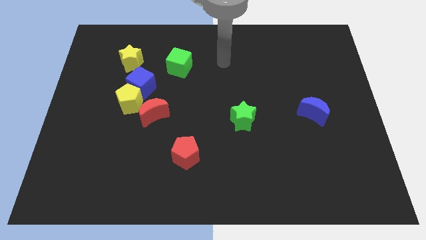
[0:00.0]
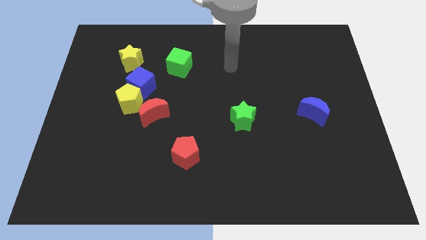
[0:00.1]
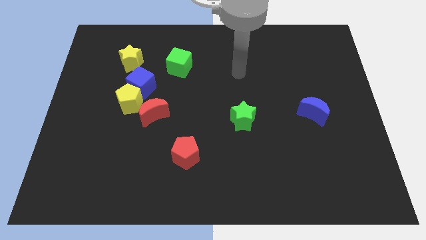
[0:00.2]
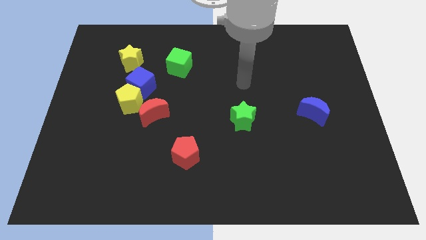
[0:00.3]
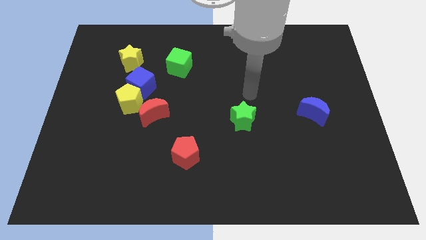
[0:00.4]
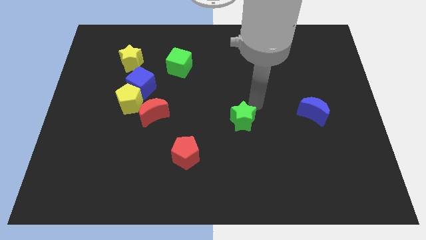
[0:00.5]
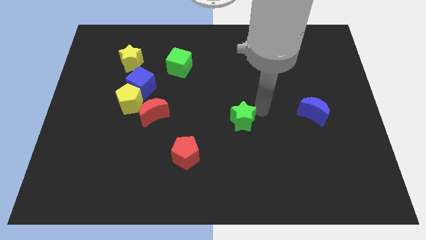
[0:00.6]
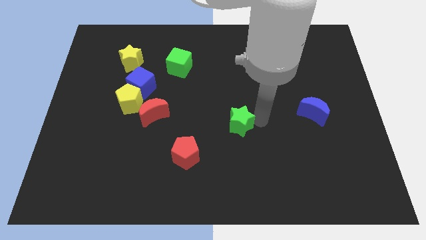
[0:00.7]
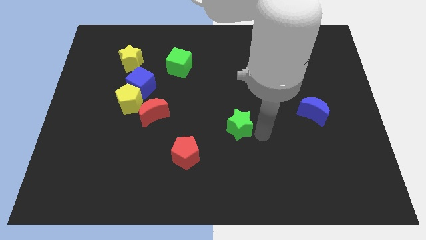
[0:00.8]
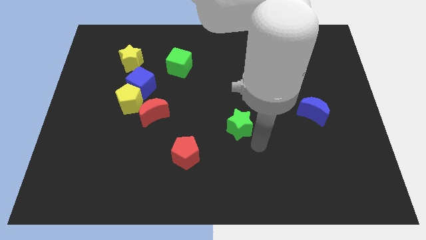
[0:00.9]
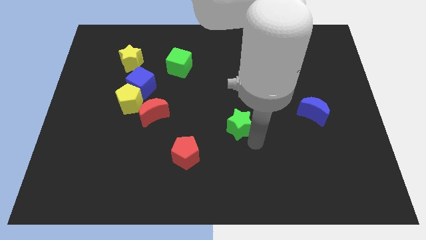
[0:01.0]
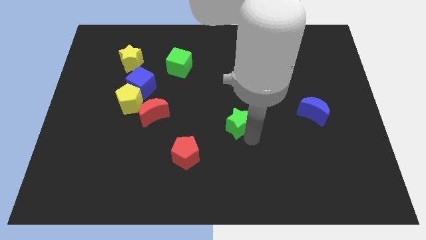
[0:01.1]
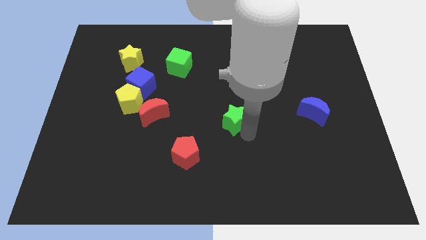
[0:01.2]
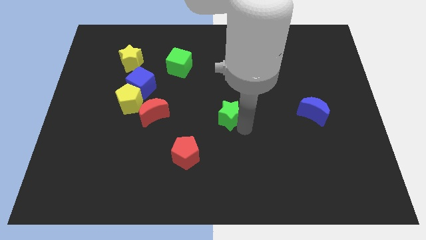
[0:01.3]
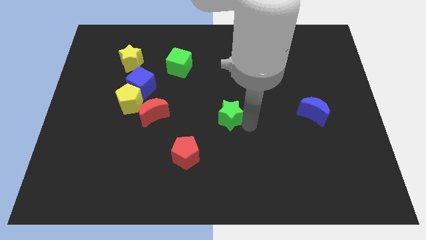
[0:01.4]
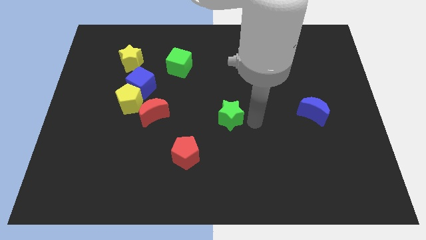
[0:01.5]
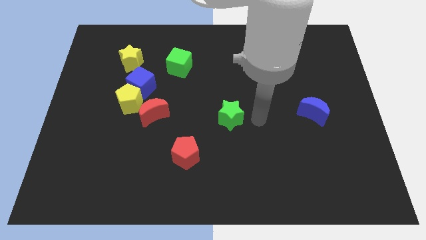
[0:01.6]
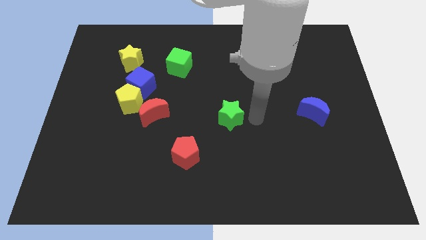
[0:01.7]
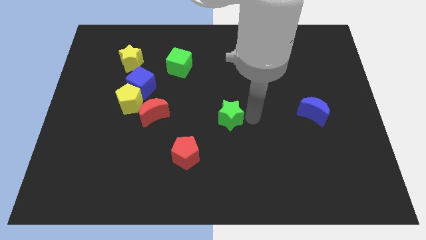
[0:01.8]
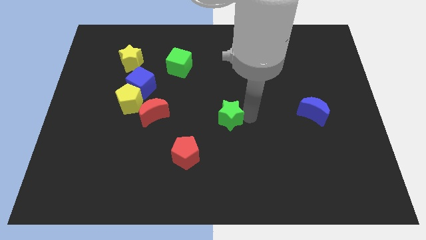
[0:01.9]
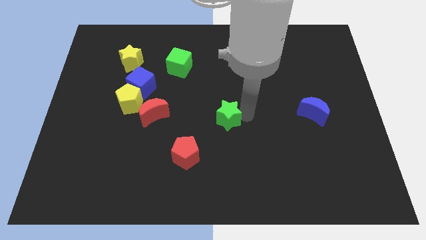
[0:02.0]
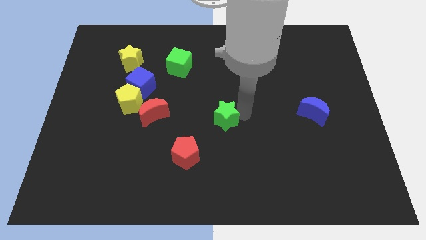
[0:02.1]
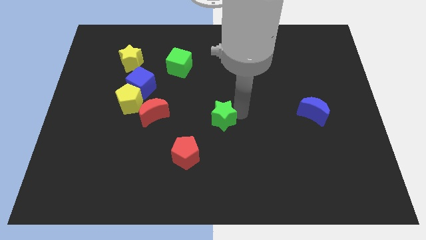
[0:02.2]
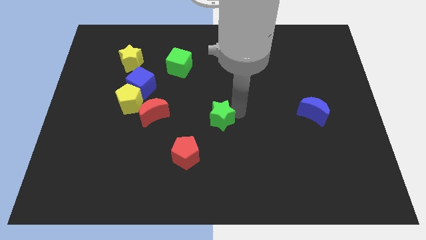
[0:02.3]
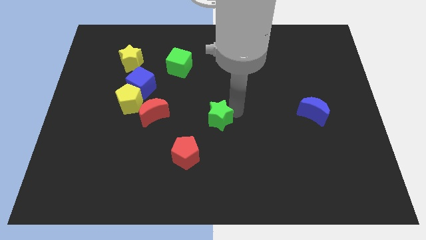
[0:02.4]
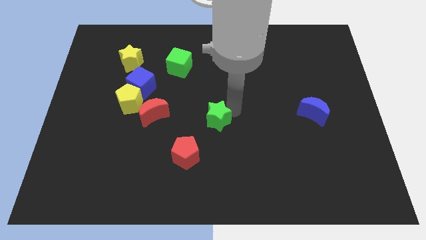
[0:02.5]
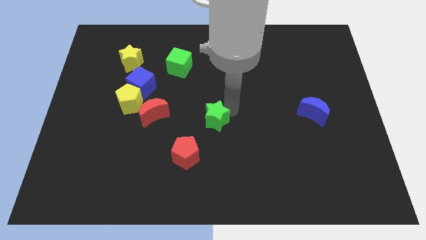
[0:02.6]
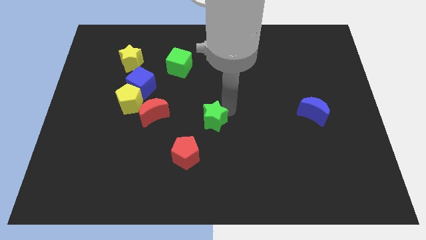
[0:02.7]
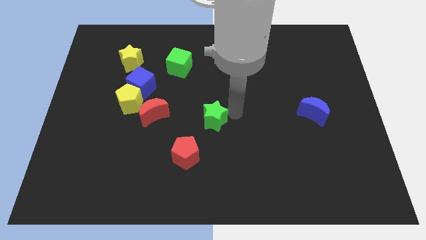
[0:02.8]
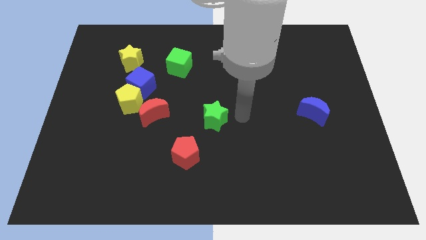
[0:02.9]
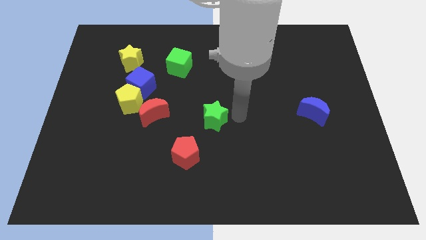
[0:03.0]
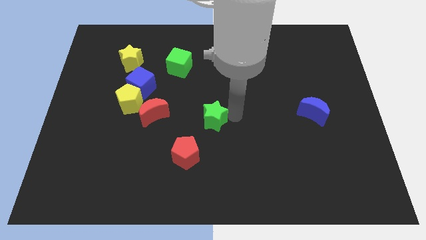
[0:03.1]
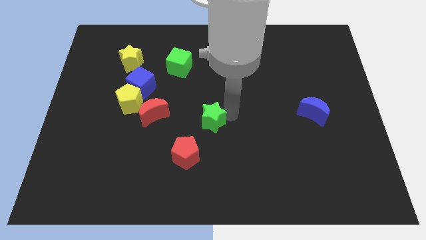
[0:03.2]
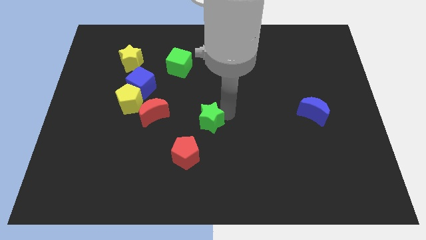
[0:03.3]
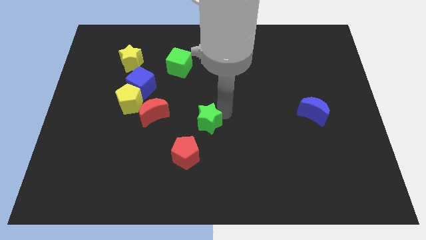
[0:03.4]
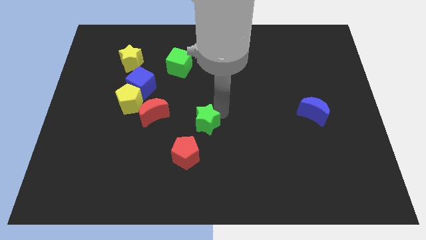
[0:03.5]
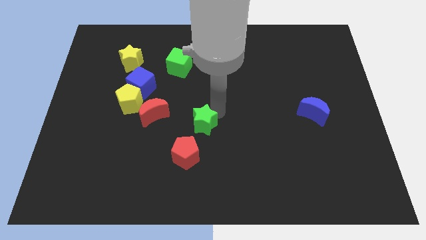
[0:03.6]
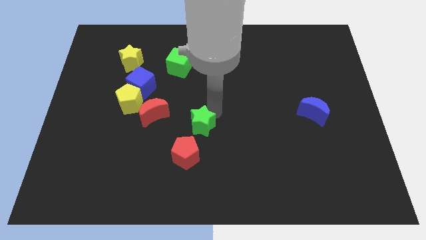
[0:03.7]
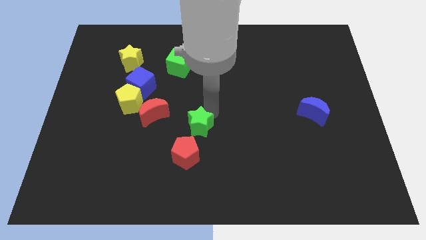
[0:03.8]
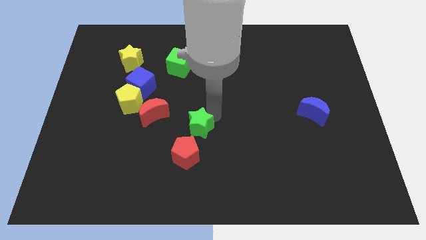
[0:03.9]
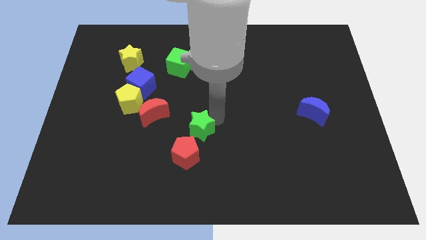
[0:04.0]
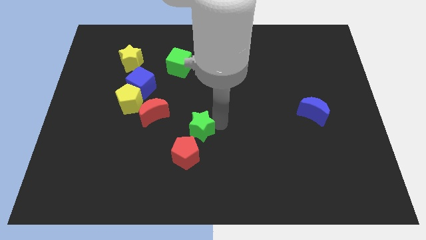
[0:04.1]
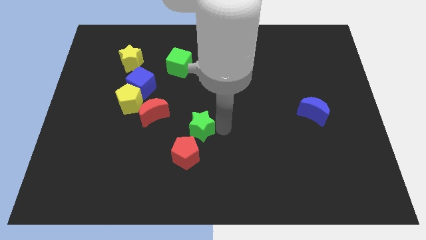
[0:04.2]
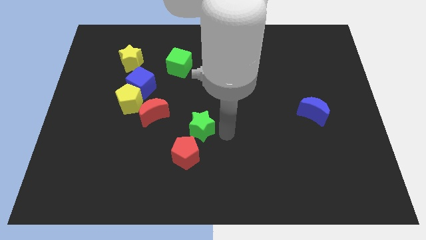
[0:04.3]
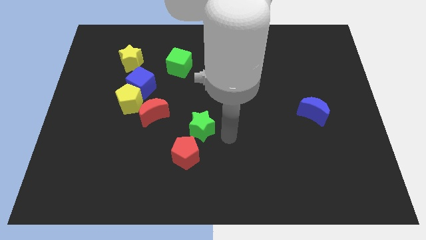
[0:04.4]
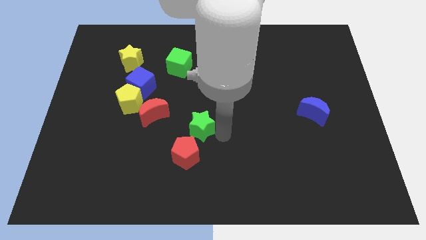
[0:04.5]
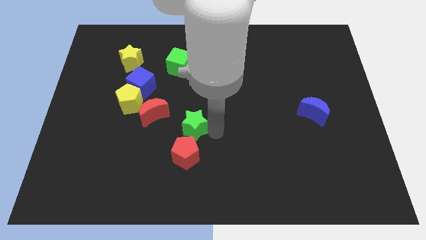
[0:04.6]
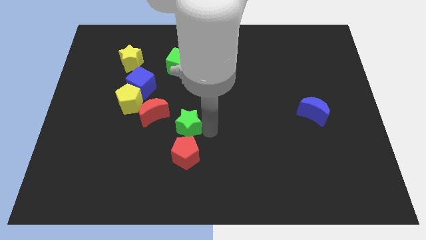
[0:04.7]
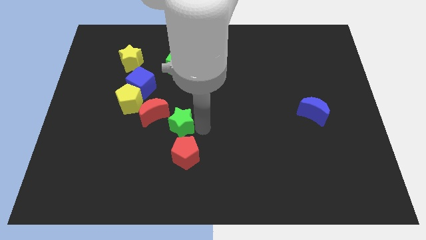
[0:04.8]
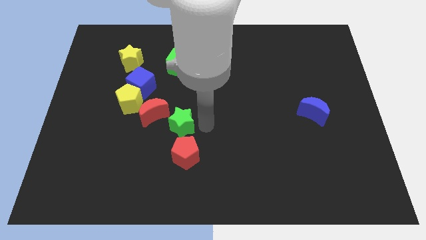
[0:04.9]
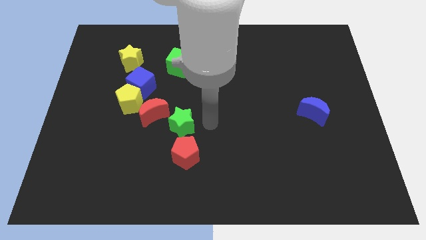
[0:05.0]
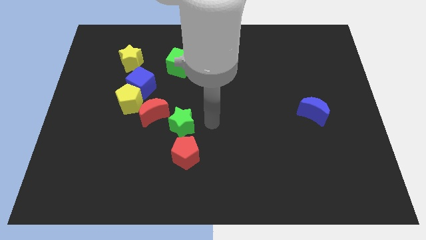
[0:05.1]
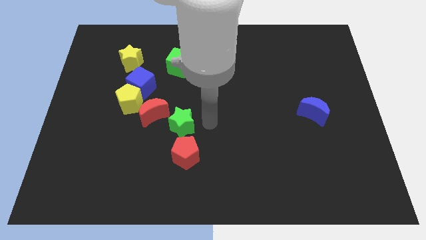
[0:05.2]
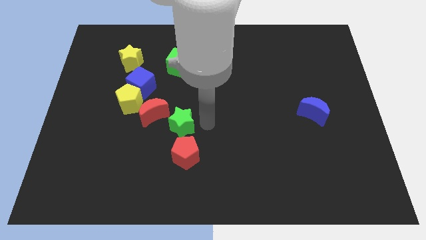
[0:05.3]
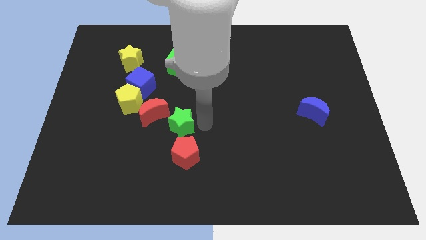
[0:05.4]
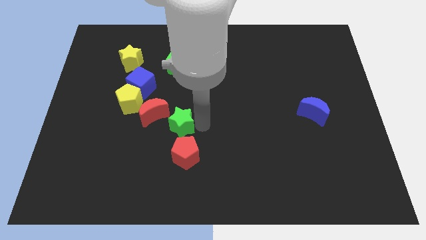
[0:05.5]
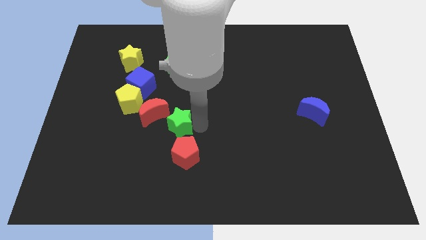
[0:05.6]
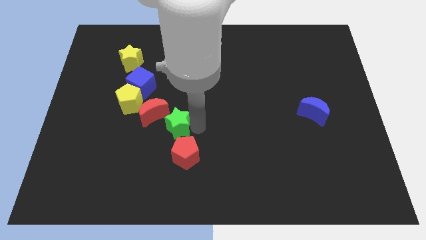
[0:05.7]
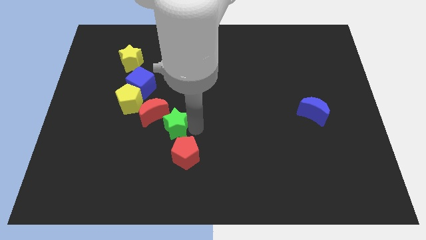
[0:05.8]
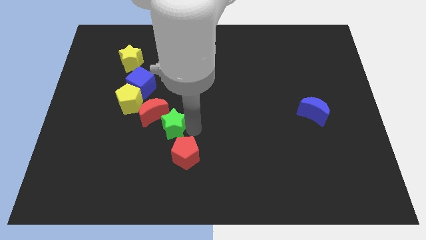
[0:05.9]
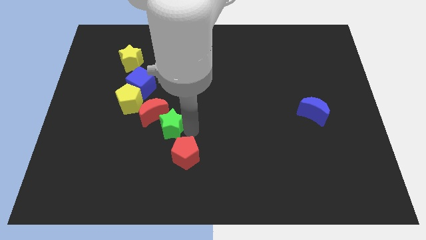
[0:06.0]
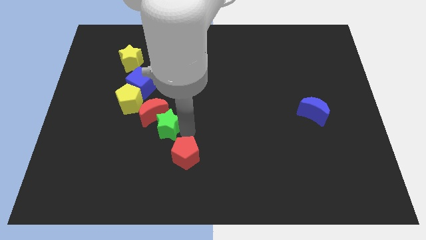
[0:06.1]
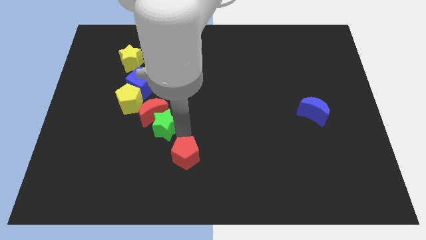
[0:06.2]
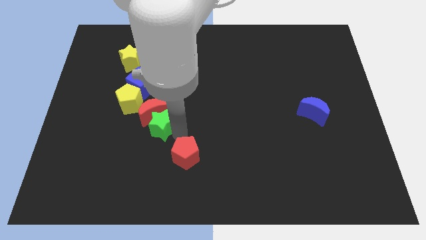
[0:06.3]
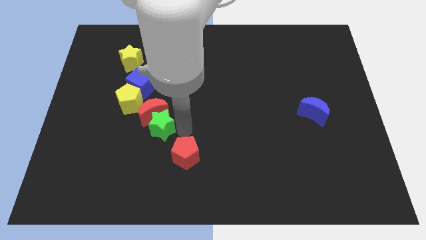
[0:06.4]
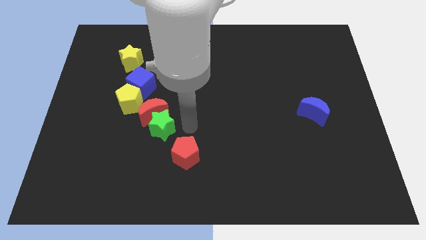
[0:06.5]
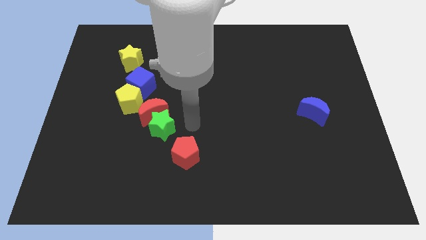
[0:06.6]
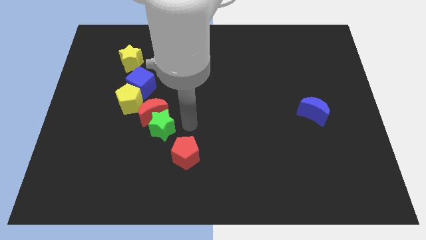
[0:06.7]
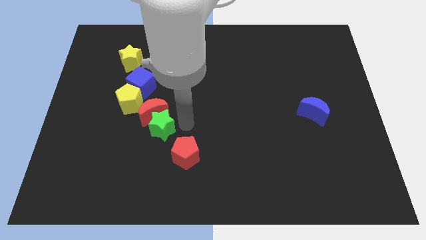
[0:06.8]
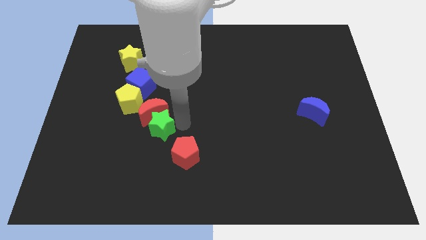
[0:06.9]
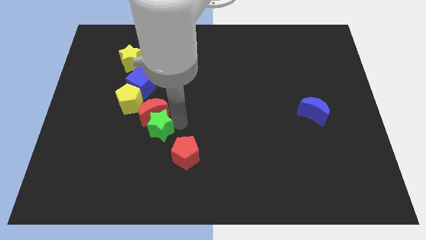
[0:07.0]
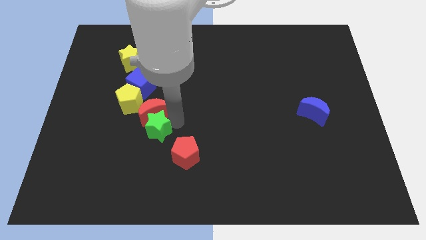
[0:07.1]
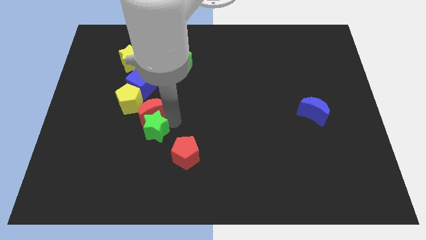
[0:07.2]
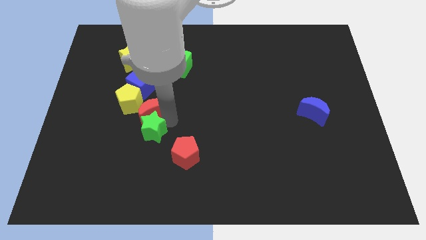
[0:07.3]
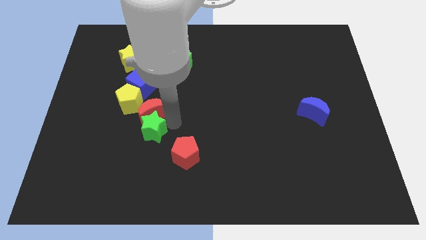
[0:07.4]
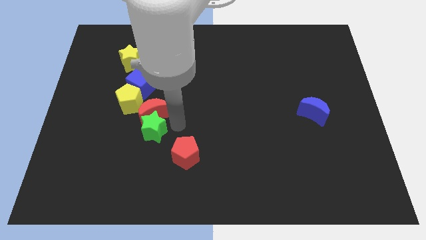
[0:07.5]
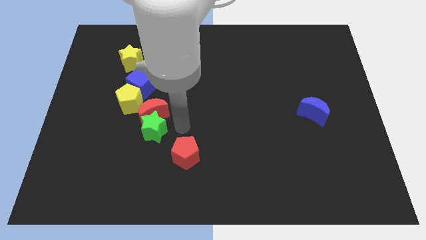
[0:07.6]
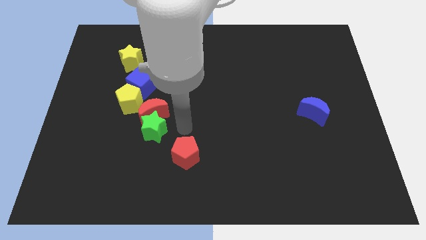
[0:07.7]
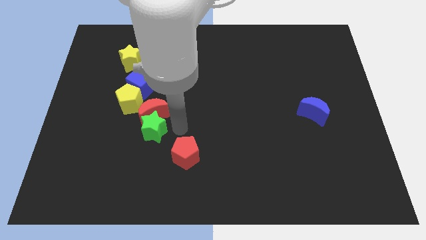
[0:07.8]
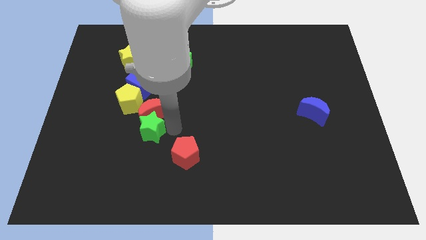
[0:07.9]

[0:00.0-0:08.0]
move the green star to the left
